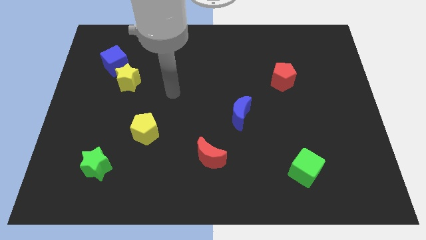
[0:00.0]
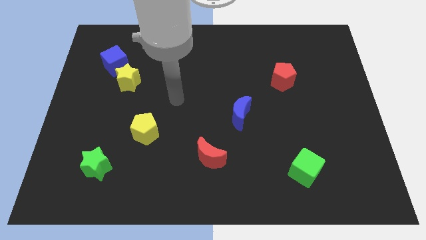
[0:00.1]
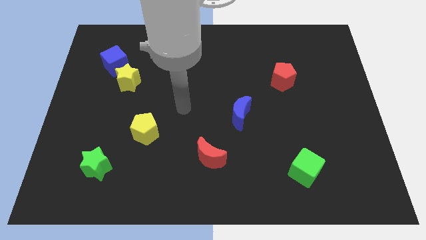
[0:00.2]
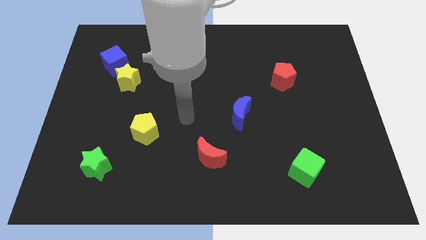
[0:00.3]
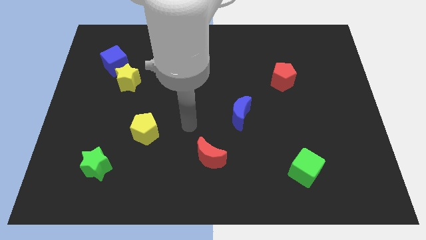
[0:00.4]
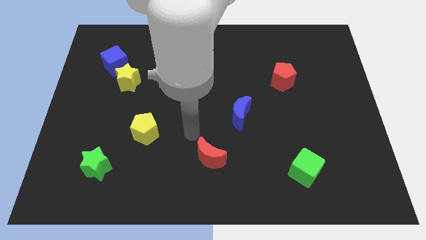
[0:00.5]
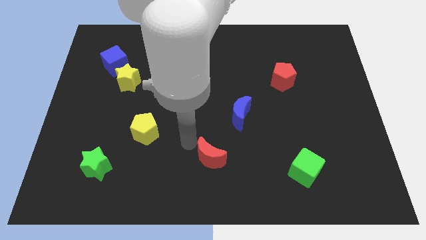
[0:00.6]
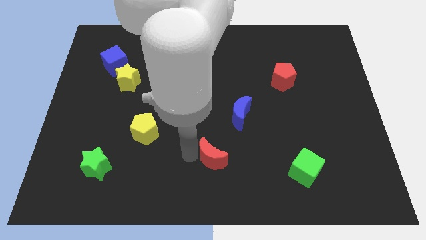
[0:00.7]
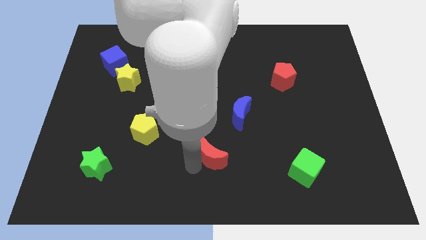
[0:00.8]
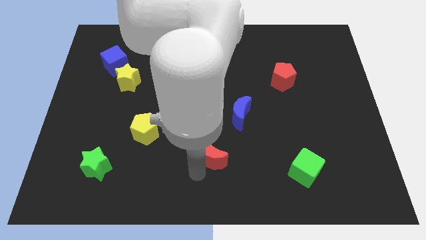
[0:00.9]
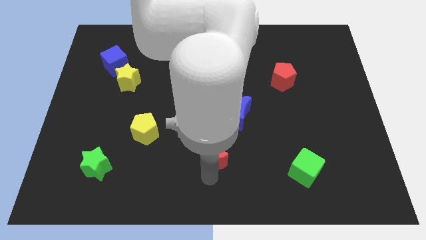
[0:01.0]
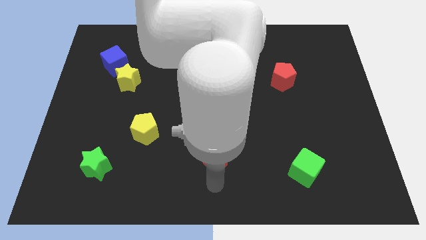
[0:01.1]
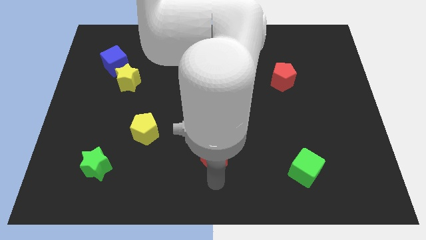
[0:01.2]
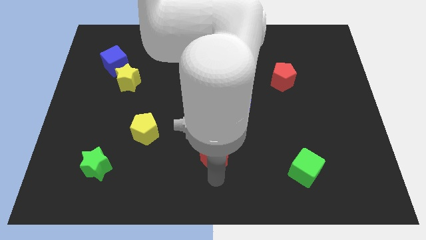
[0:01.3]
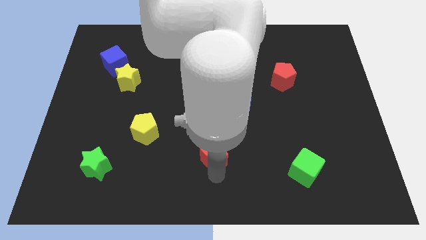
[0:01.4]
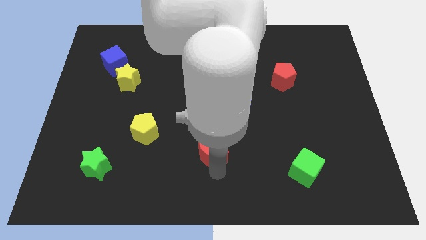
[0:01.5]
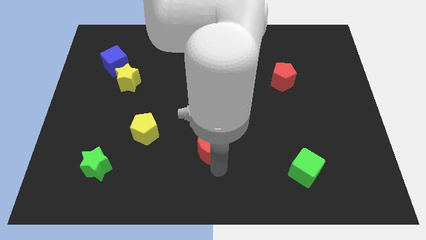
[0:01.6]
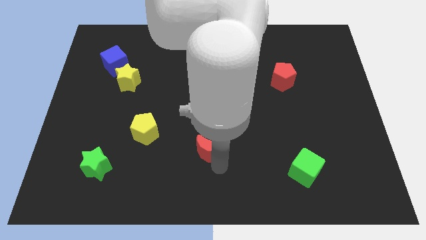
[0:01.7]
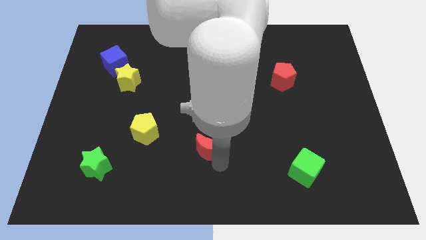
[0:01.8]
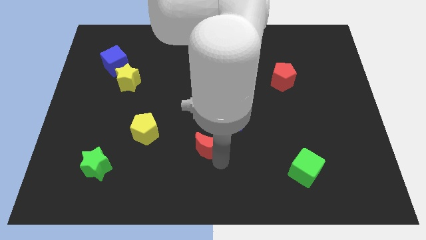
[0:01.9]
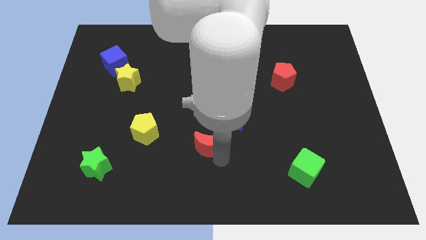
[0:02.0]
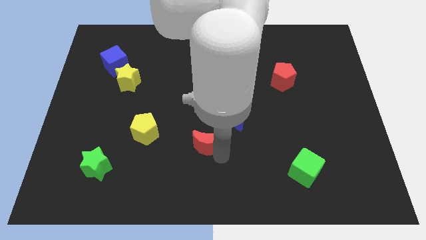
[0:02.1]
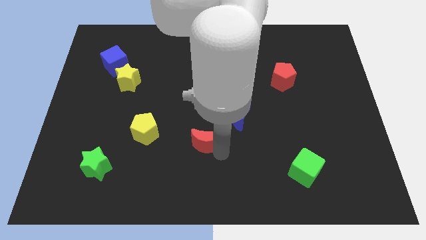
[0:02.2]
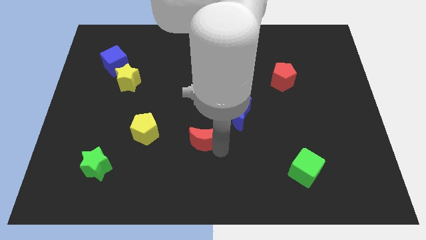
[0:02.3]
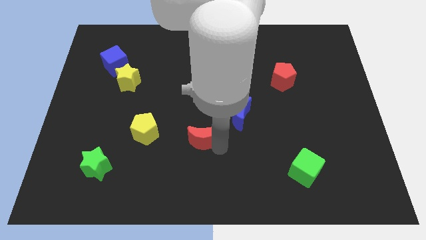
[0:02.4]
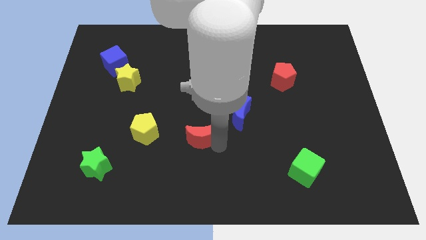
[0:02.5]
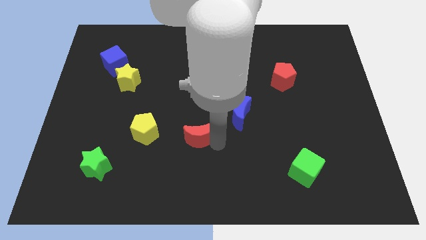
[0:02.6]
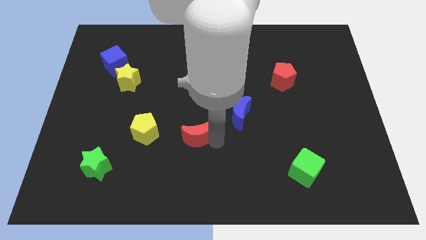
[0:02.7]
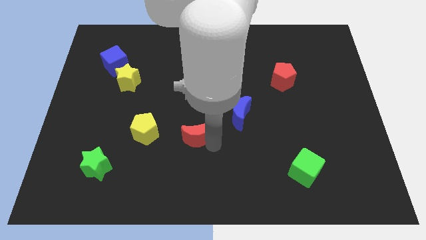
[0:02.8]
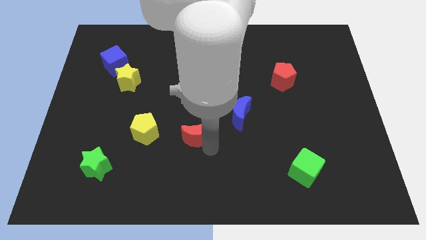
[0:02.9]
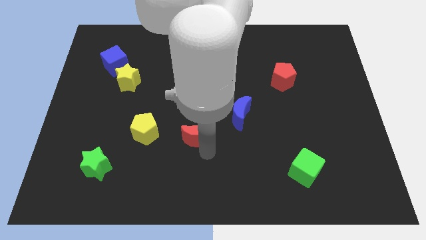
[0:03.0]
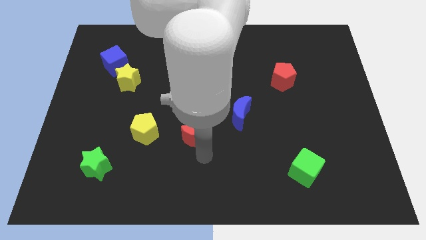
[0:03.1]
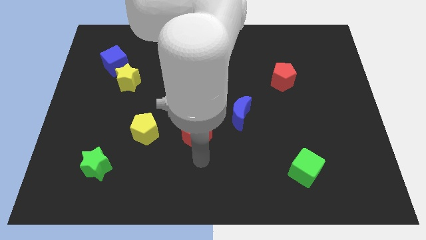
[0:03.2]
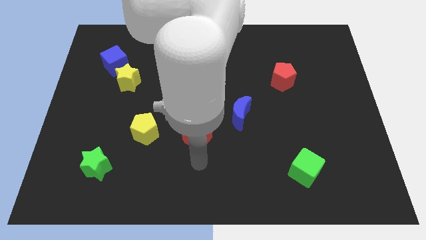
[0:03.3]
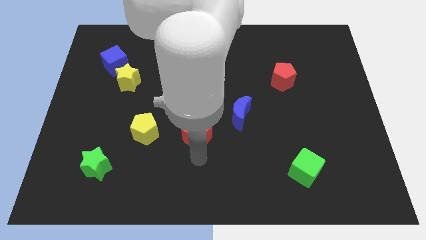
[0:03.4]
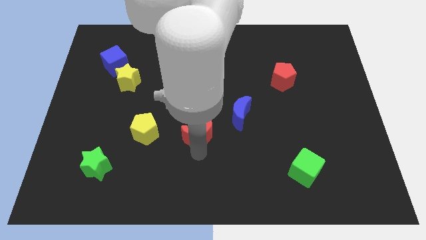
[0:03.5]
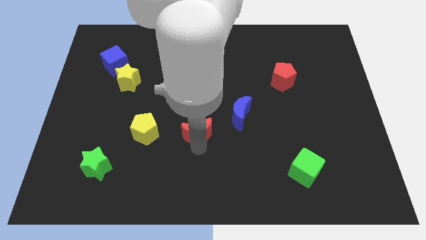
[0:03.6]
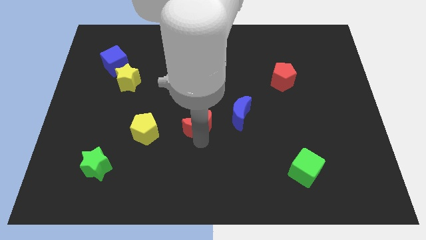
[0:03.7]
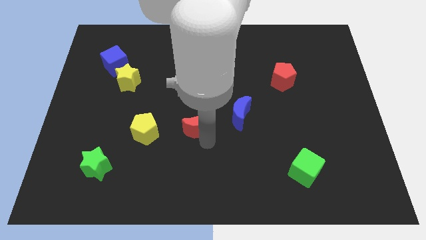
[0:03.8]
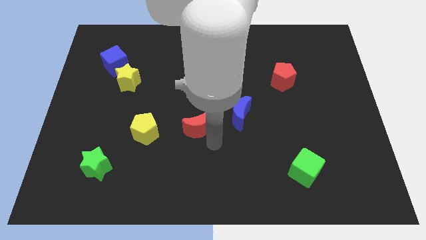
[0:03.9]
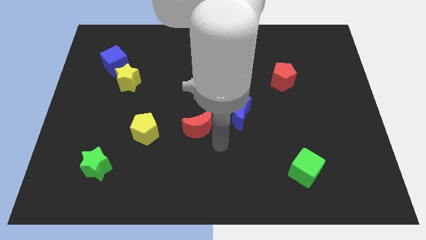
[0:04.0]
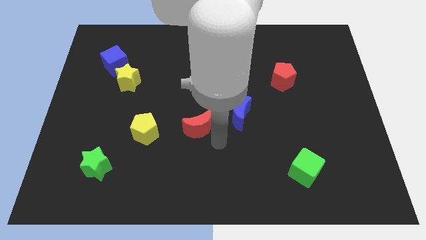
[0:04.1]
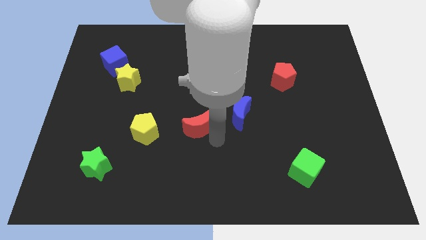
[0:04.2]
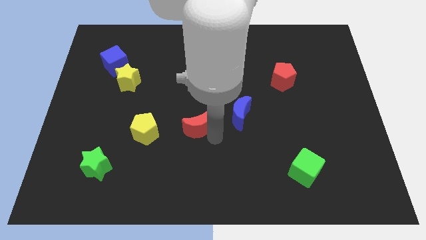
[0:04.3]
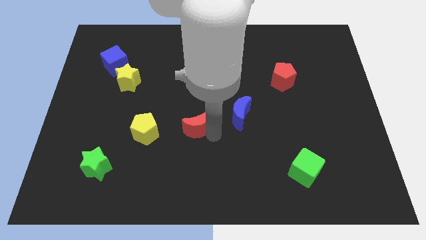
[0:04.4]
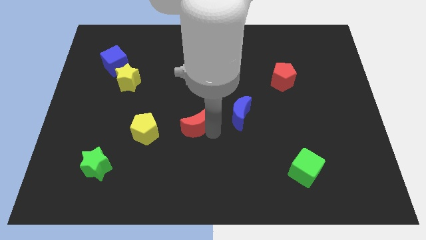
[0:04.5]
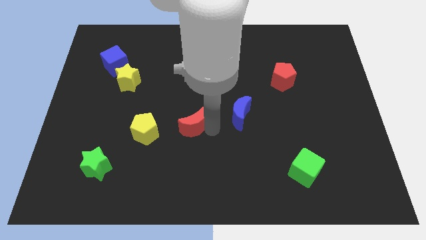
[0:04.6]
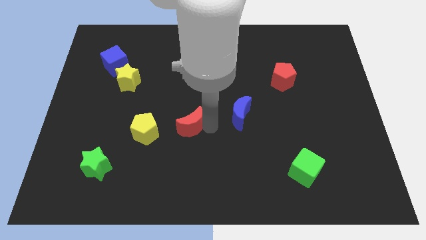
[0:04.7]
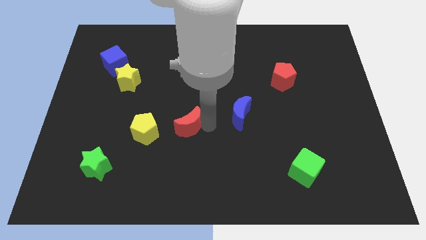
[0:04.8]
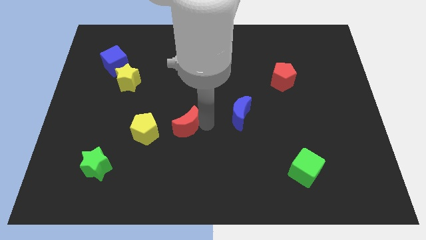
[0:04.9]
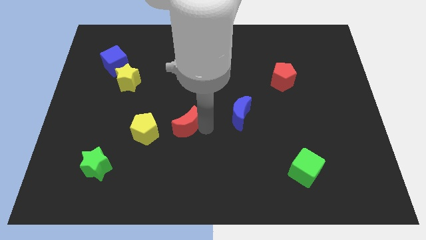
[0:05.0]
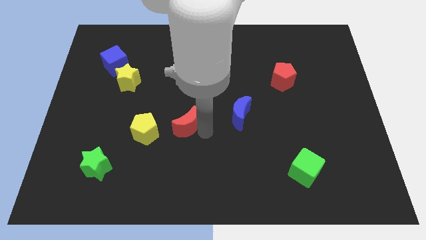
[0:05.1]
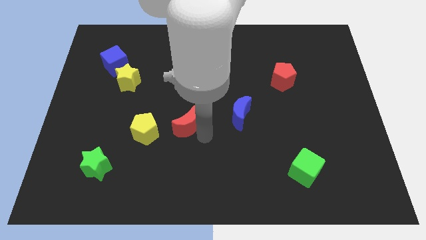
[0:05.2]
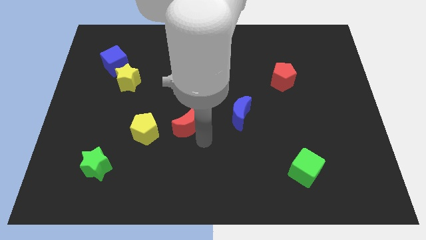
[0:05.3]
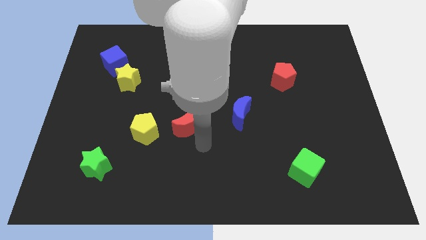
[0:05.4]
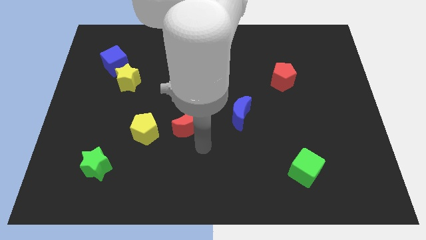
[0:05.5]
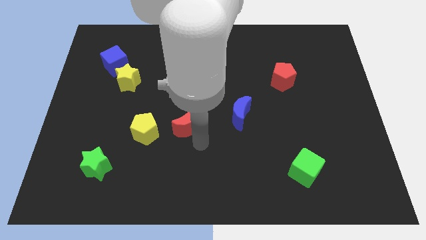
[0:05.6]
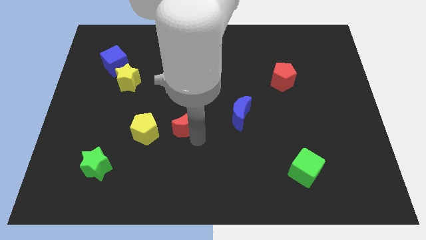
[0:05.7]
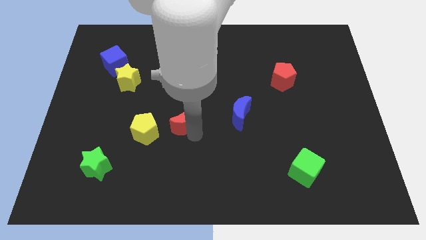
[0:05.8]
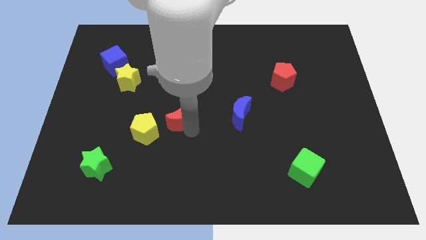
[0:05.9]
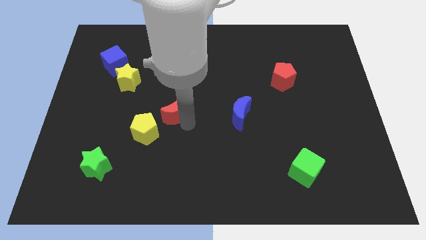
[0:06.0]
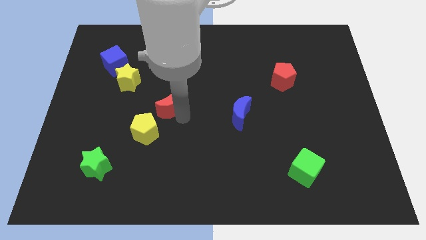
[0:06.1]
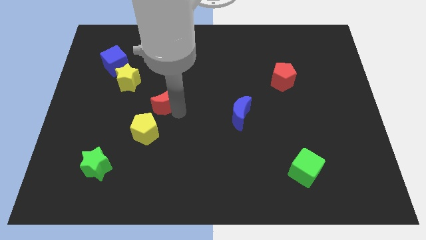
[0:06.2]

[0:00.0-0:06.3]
move the red moon to the bottom right of the yellow star

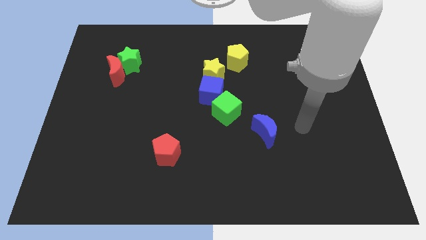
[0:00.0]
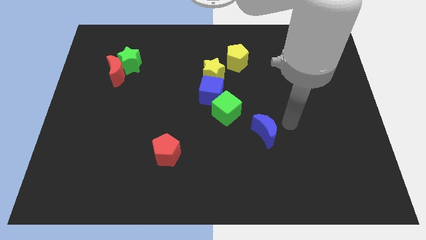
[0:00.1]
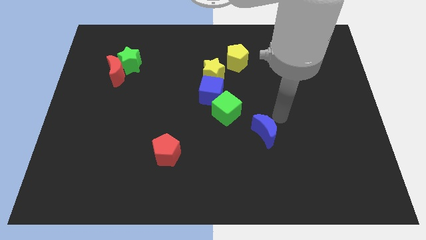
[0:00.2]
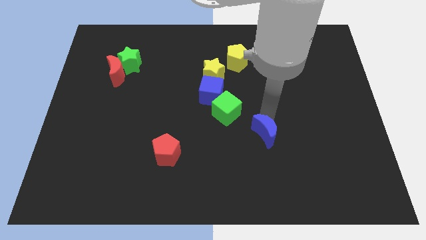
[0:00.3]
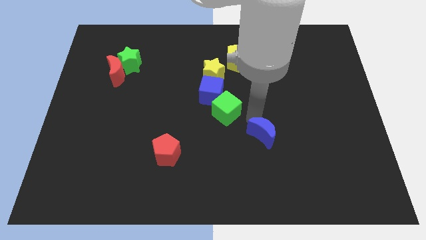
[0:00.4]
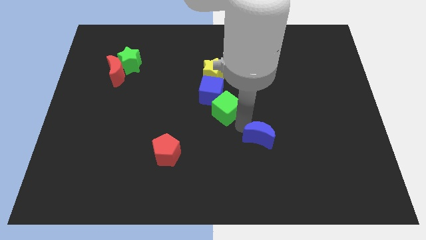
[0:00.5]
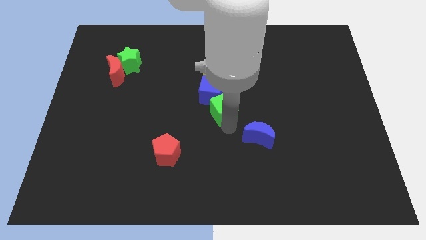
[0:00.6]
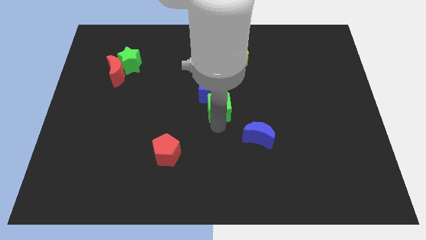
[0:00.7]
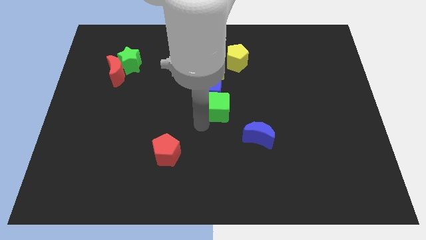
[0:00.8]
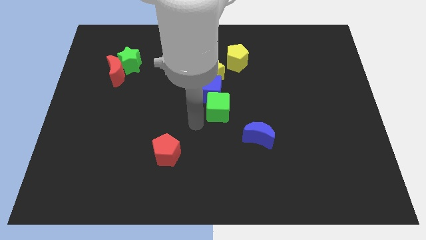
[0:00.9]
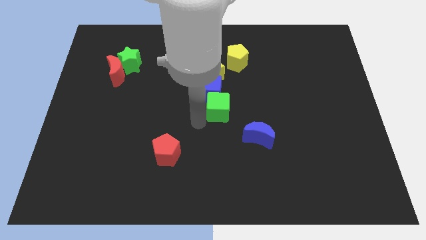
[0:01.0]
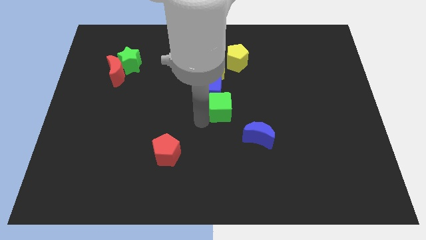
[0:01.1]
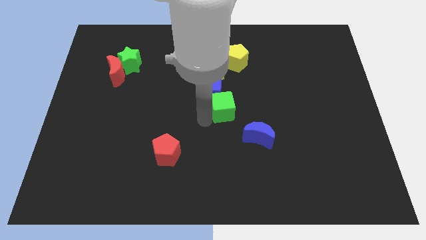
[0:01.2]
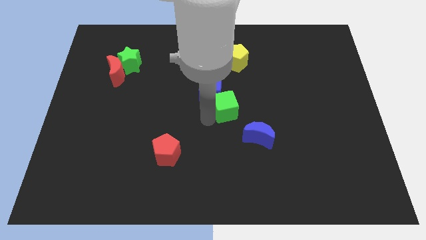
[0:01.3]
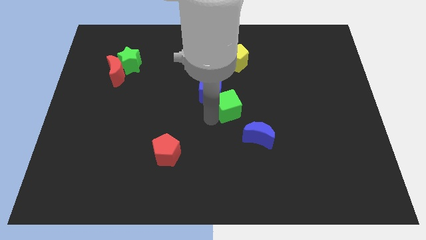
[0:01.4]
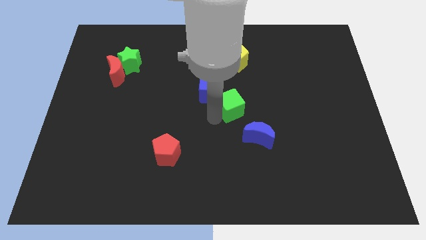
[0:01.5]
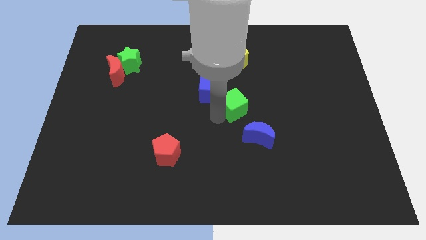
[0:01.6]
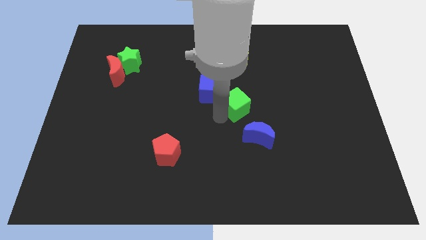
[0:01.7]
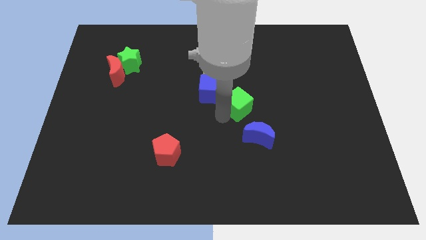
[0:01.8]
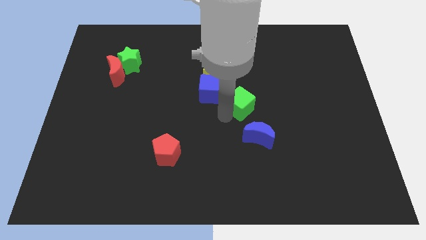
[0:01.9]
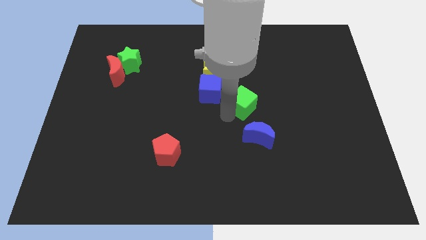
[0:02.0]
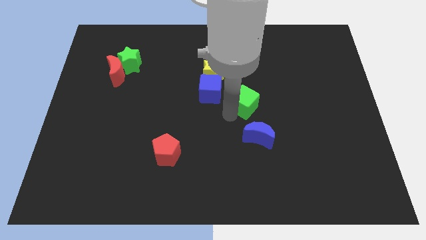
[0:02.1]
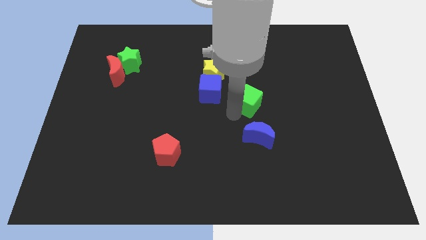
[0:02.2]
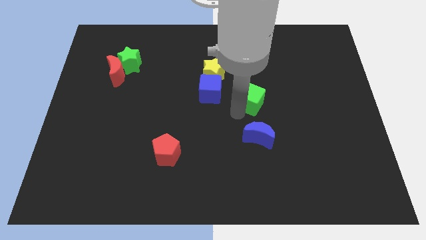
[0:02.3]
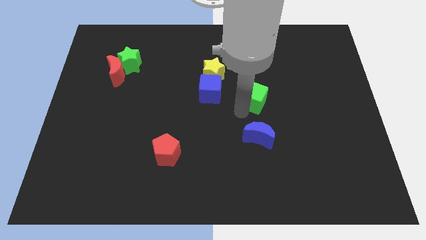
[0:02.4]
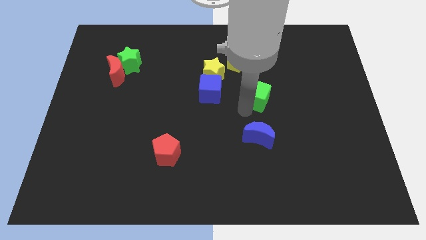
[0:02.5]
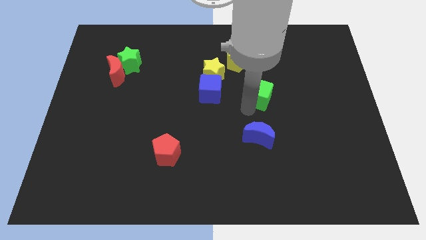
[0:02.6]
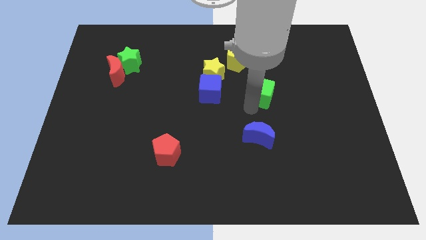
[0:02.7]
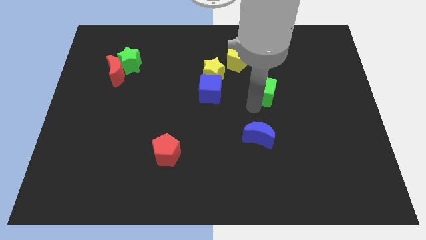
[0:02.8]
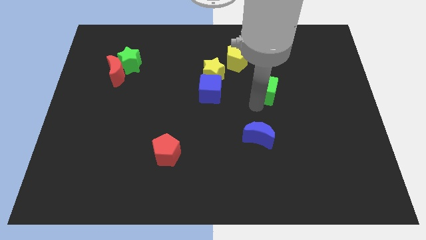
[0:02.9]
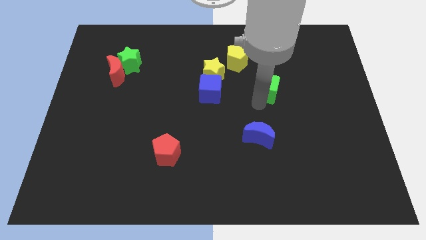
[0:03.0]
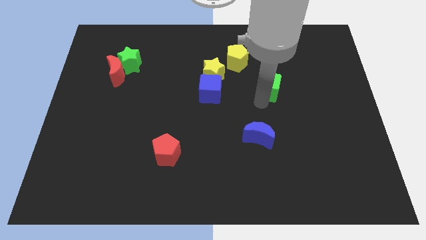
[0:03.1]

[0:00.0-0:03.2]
push the green cube to the right of the yellow star
